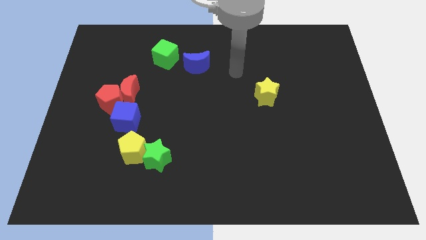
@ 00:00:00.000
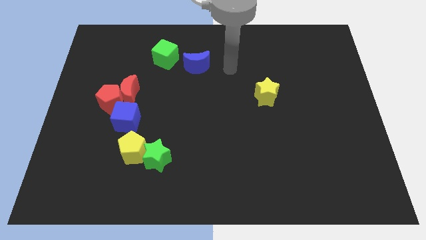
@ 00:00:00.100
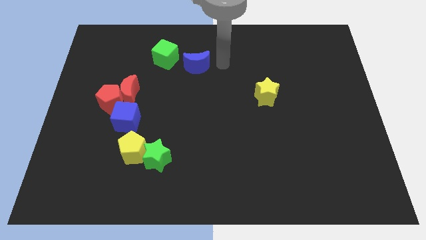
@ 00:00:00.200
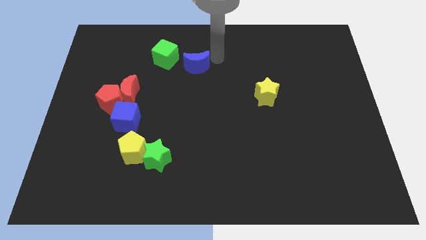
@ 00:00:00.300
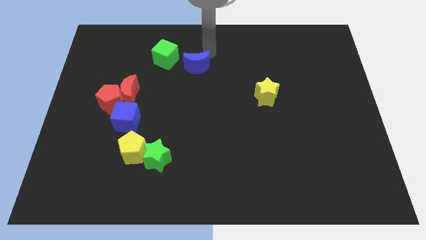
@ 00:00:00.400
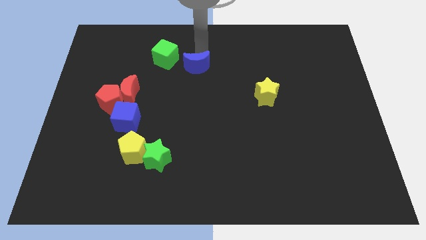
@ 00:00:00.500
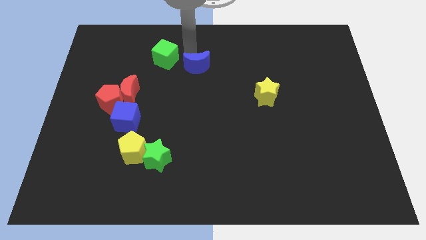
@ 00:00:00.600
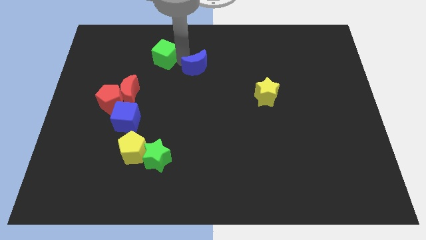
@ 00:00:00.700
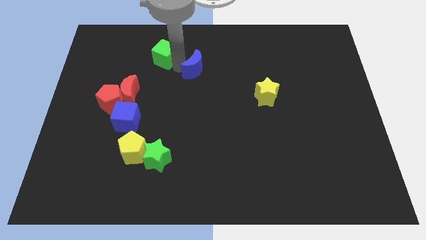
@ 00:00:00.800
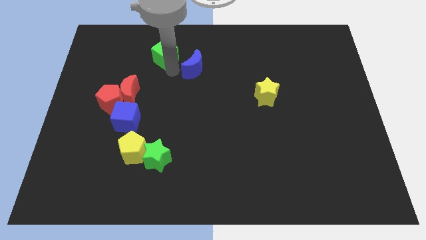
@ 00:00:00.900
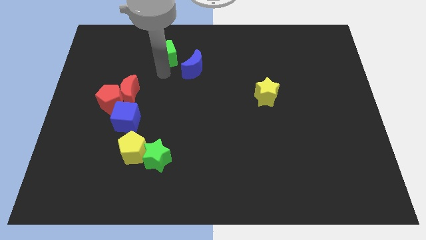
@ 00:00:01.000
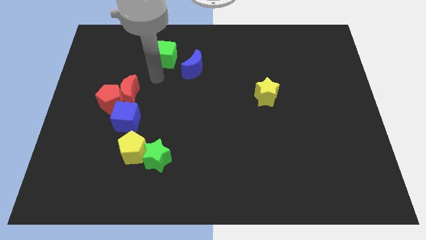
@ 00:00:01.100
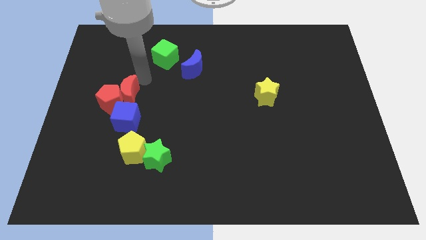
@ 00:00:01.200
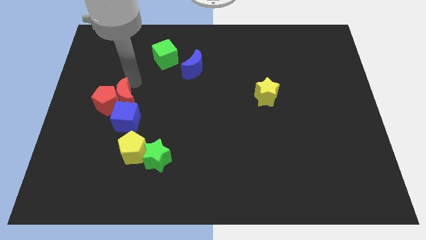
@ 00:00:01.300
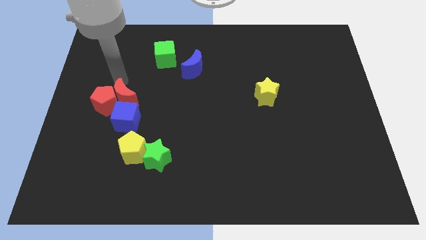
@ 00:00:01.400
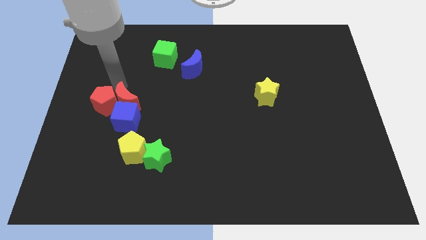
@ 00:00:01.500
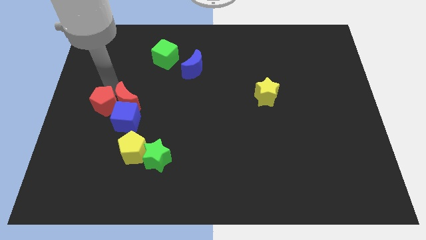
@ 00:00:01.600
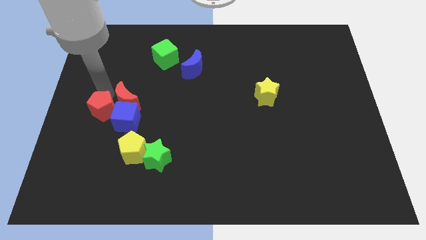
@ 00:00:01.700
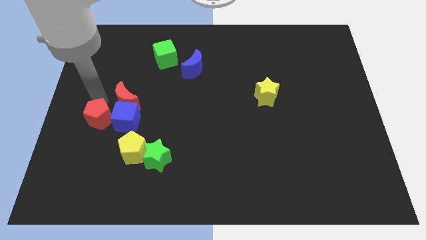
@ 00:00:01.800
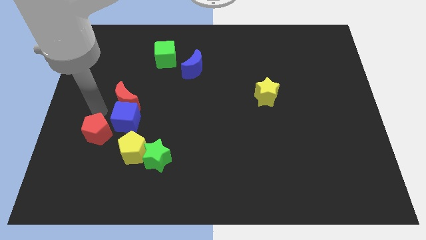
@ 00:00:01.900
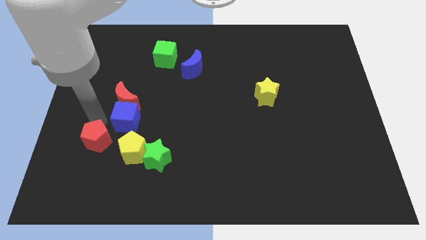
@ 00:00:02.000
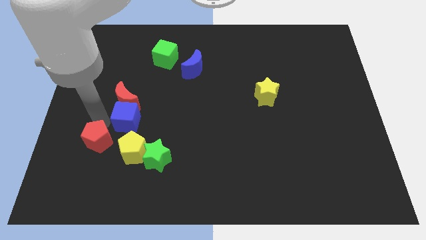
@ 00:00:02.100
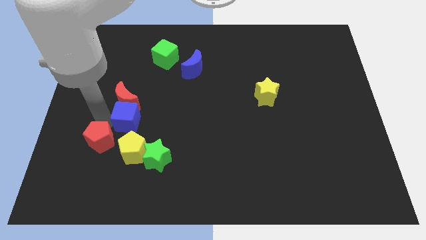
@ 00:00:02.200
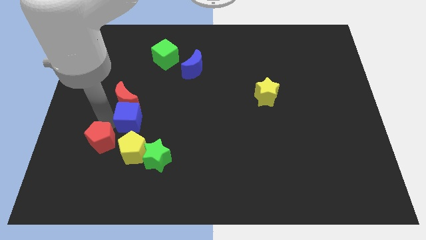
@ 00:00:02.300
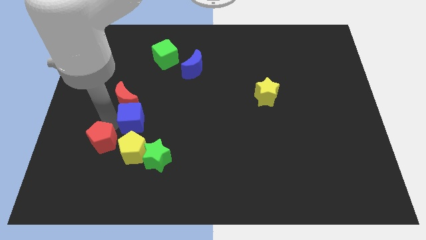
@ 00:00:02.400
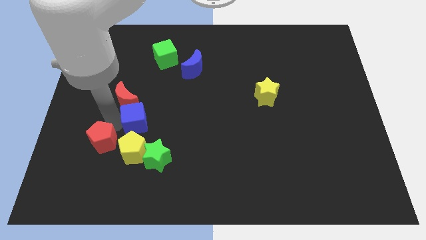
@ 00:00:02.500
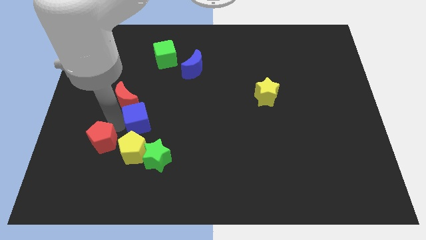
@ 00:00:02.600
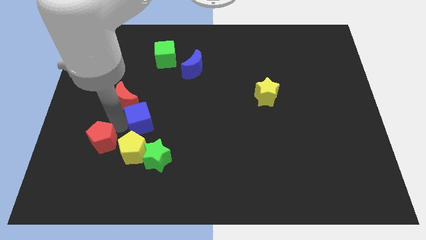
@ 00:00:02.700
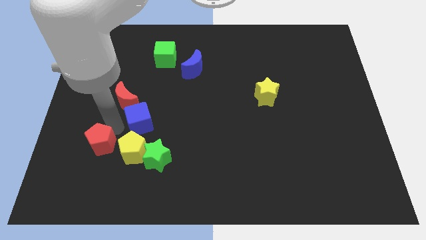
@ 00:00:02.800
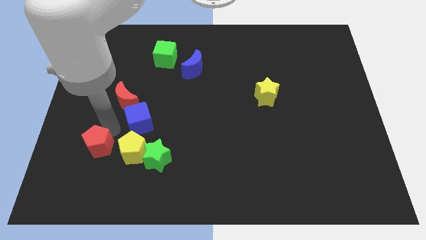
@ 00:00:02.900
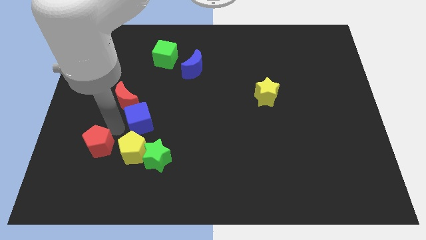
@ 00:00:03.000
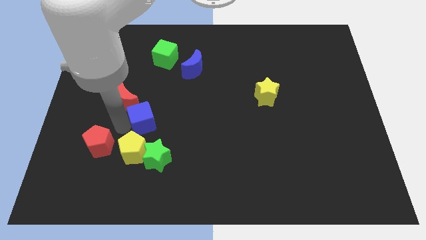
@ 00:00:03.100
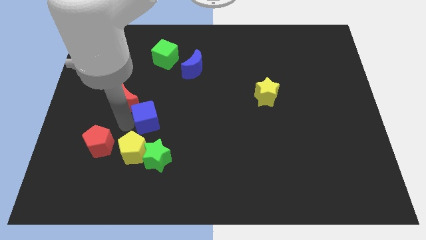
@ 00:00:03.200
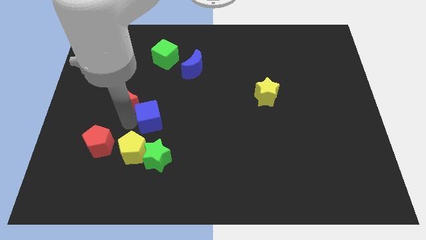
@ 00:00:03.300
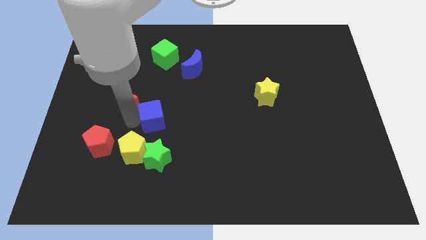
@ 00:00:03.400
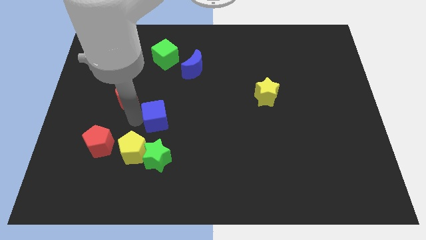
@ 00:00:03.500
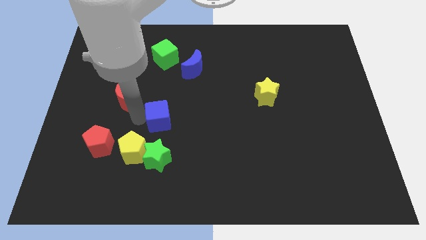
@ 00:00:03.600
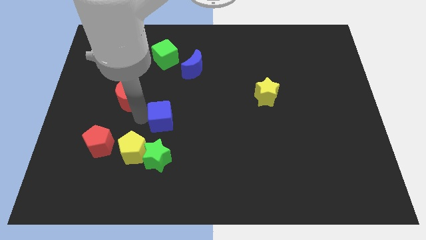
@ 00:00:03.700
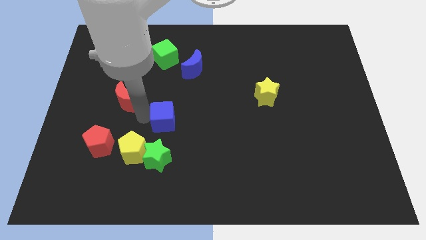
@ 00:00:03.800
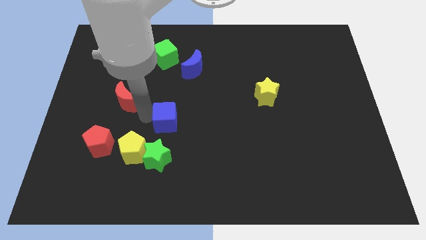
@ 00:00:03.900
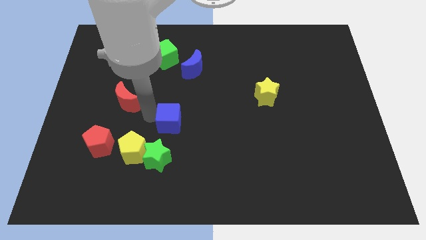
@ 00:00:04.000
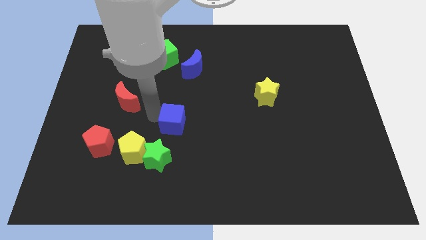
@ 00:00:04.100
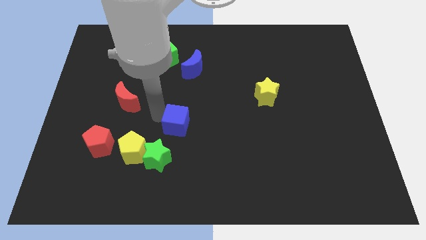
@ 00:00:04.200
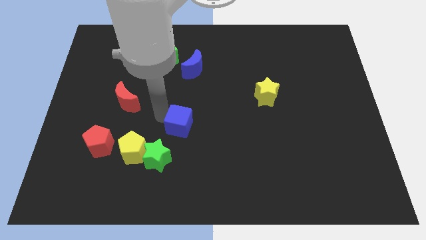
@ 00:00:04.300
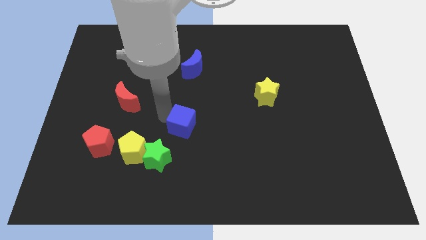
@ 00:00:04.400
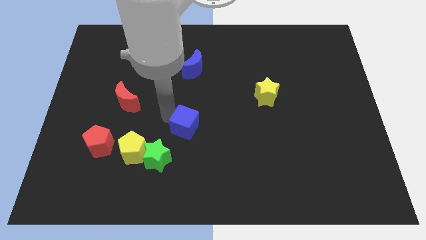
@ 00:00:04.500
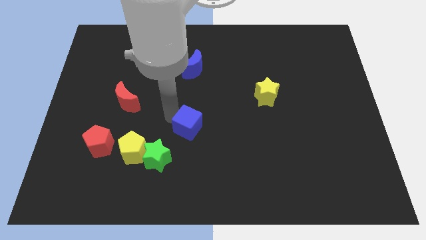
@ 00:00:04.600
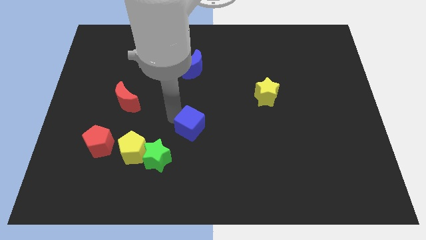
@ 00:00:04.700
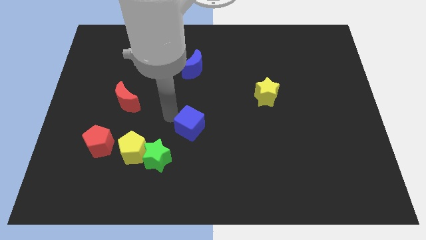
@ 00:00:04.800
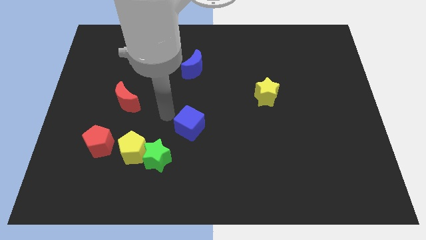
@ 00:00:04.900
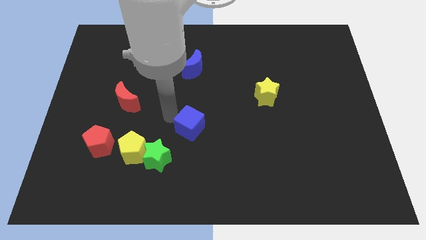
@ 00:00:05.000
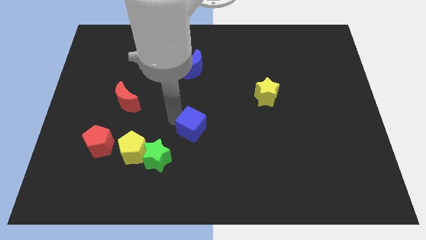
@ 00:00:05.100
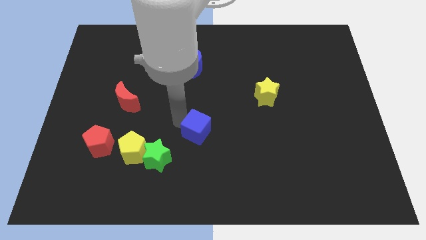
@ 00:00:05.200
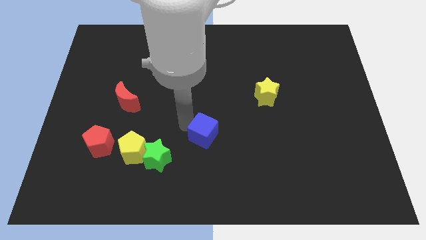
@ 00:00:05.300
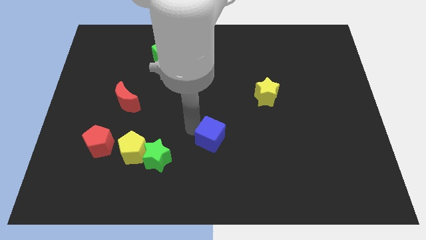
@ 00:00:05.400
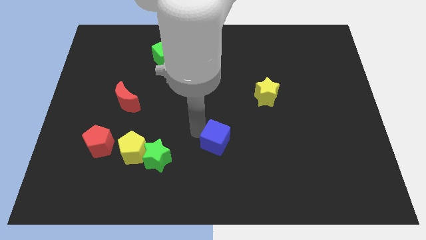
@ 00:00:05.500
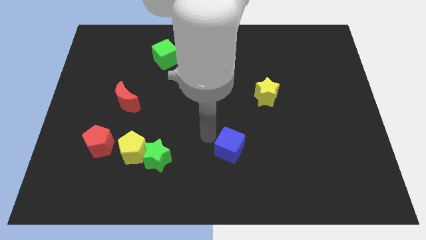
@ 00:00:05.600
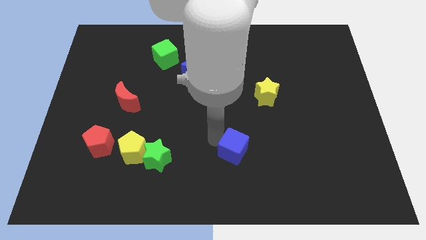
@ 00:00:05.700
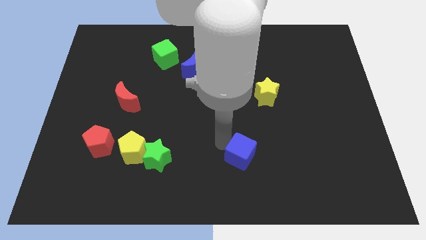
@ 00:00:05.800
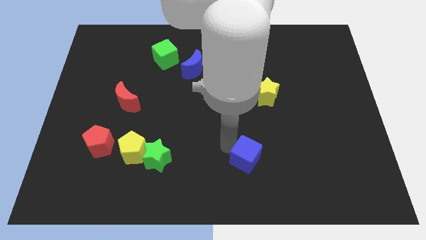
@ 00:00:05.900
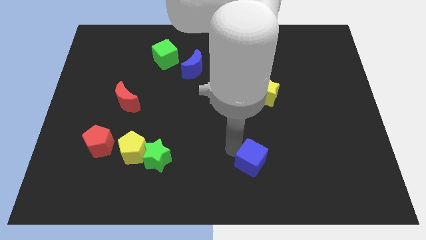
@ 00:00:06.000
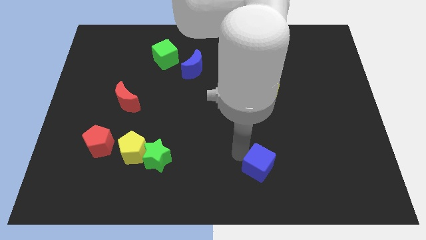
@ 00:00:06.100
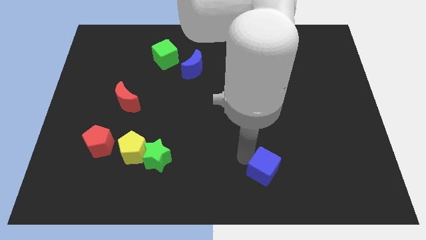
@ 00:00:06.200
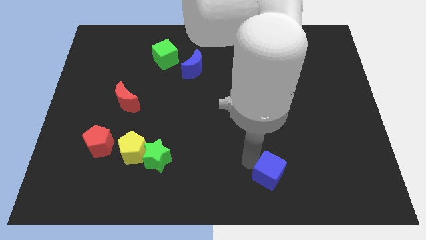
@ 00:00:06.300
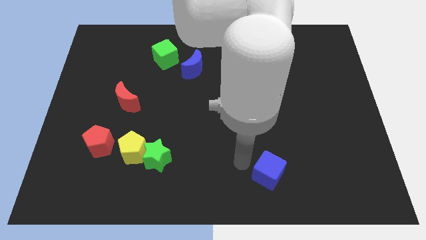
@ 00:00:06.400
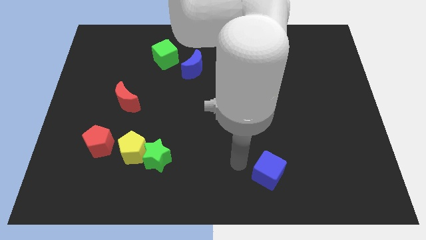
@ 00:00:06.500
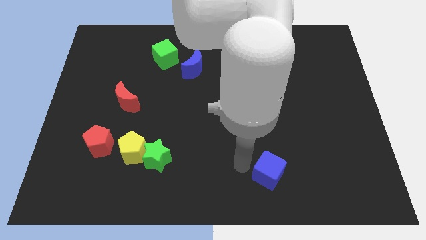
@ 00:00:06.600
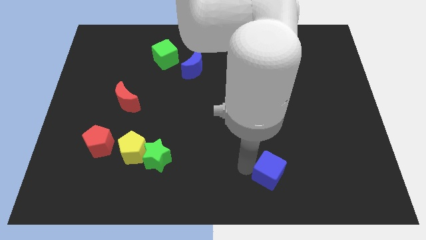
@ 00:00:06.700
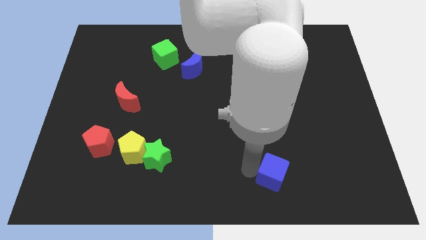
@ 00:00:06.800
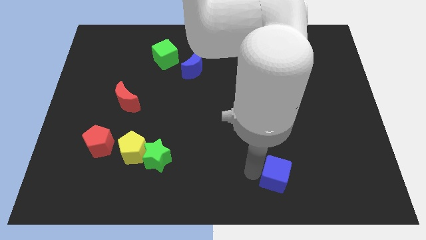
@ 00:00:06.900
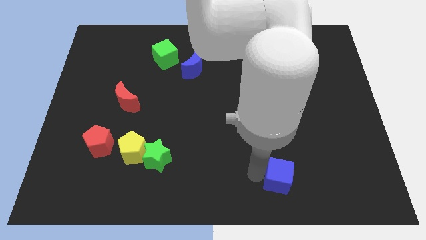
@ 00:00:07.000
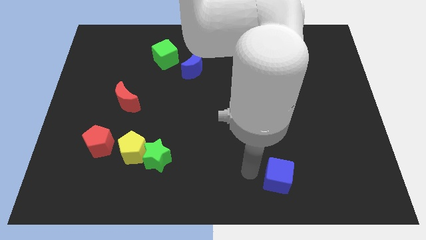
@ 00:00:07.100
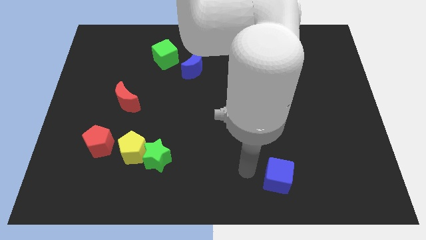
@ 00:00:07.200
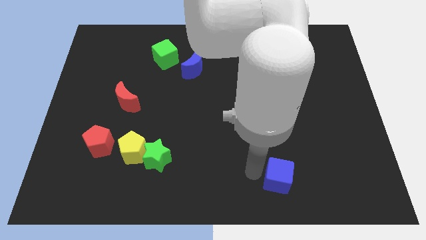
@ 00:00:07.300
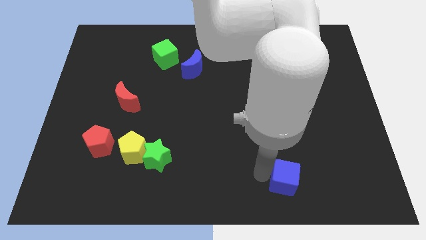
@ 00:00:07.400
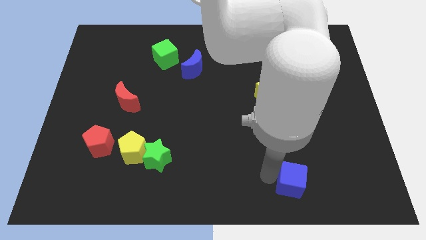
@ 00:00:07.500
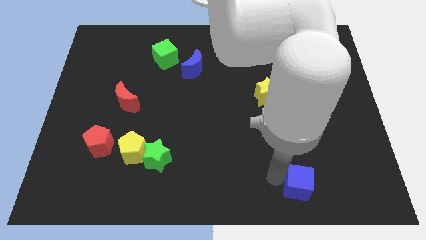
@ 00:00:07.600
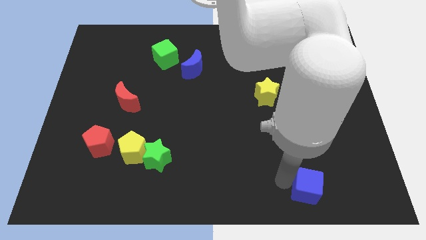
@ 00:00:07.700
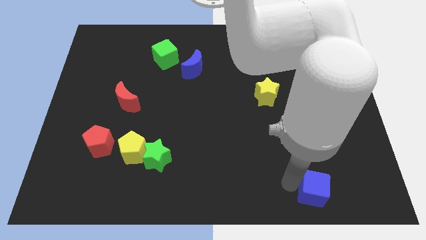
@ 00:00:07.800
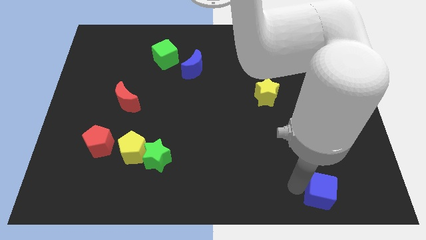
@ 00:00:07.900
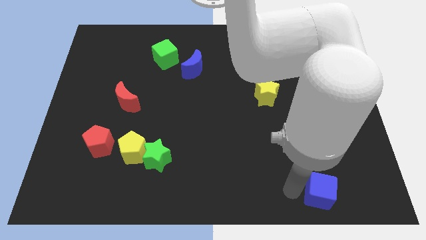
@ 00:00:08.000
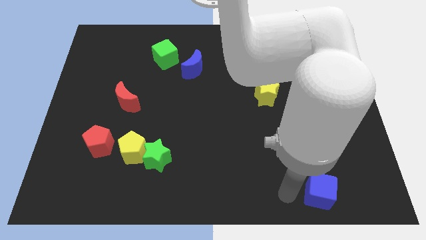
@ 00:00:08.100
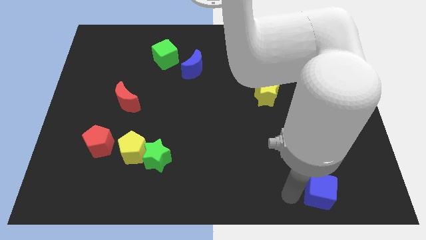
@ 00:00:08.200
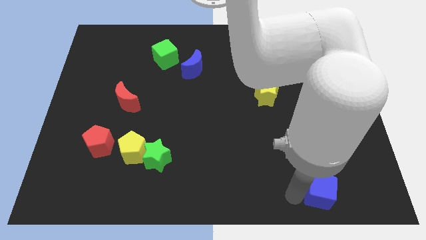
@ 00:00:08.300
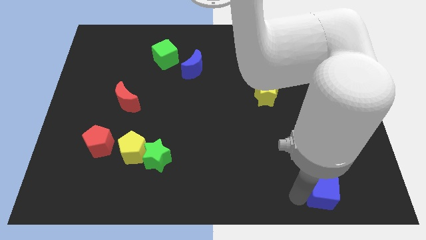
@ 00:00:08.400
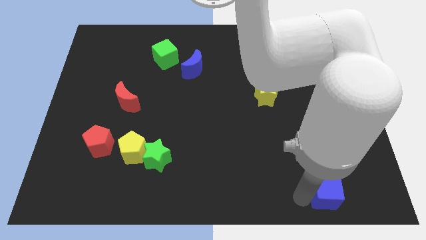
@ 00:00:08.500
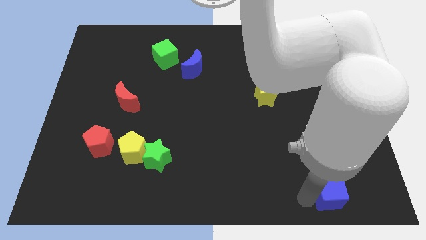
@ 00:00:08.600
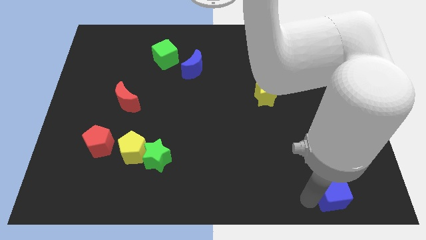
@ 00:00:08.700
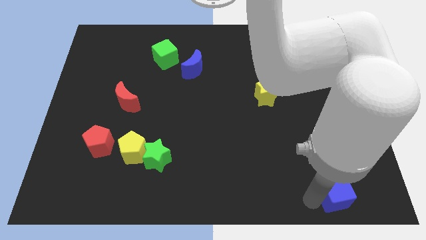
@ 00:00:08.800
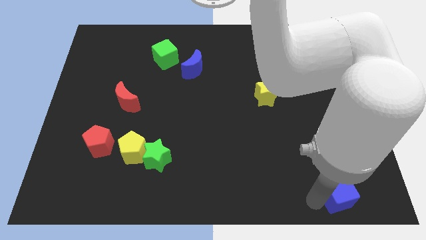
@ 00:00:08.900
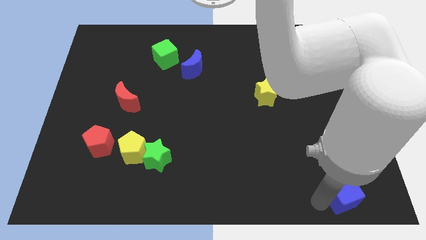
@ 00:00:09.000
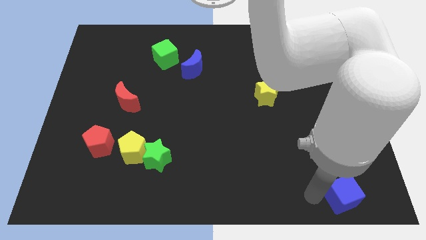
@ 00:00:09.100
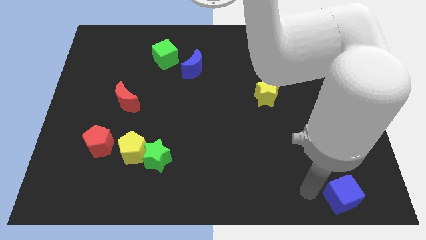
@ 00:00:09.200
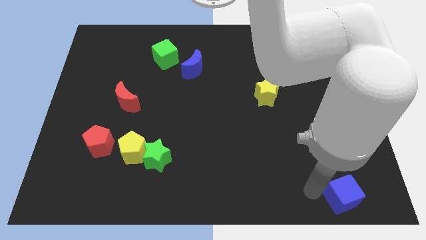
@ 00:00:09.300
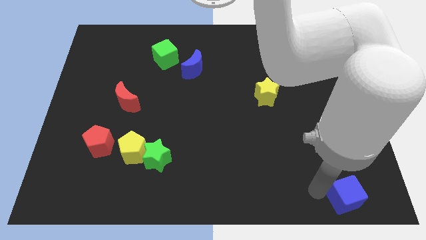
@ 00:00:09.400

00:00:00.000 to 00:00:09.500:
slide the blue cube to the bottom right corner
